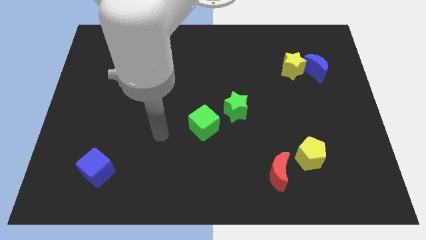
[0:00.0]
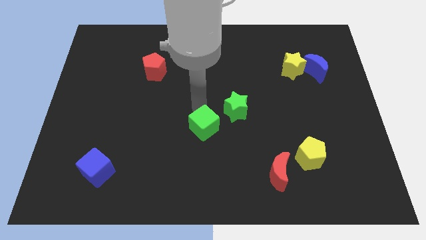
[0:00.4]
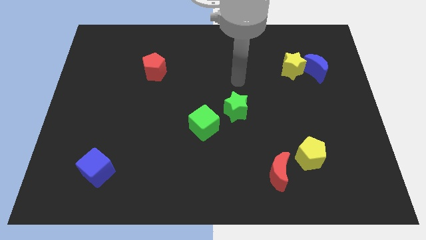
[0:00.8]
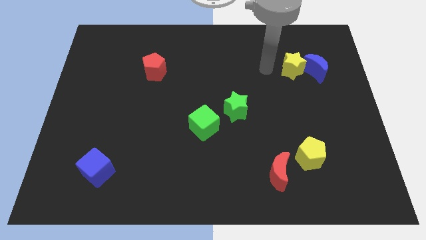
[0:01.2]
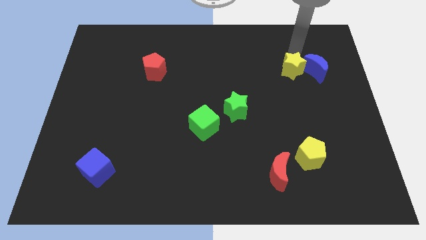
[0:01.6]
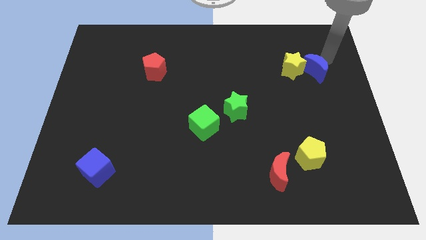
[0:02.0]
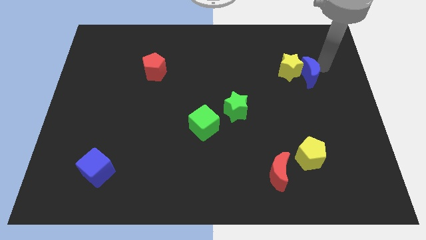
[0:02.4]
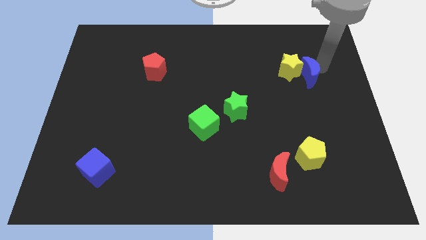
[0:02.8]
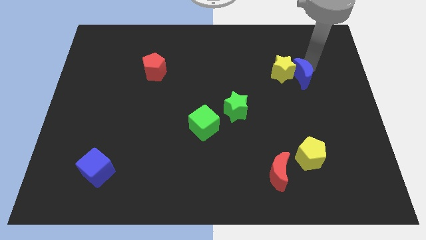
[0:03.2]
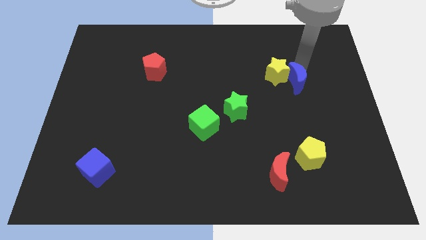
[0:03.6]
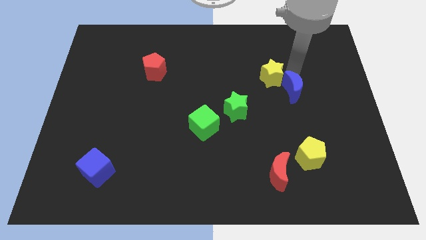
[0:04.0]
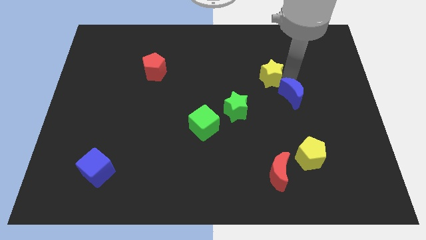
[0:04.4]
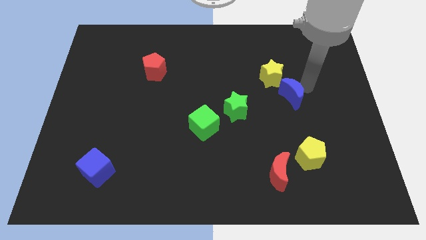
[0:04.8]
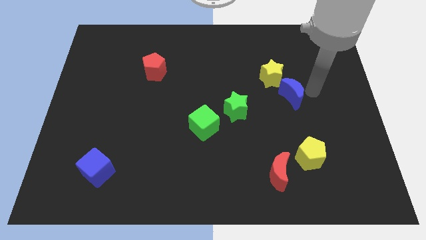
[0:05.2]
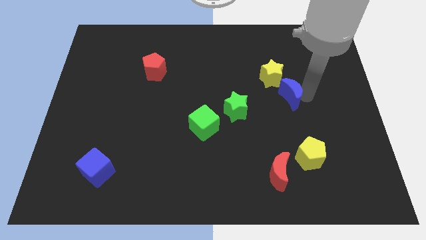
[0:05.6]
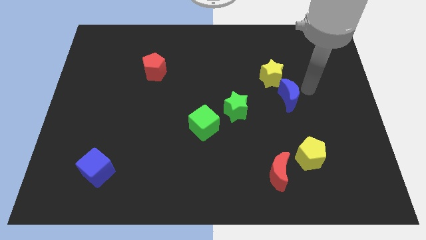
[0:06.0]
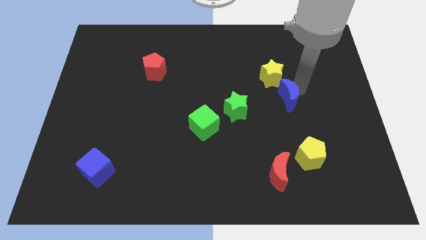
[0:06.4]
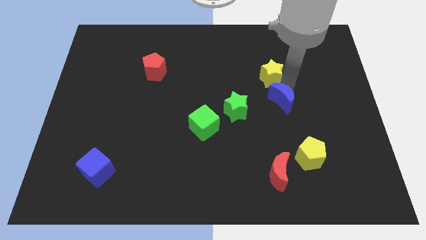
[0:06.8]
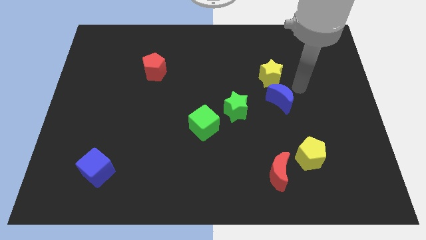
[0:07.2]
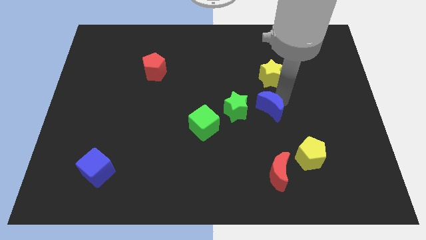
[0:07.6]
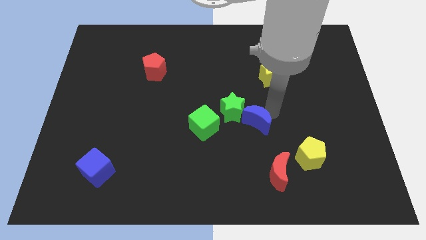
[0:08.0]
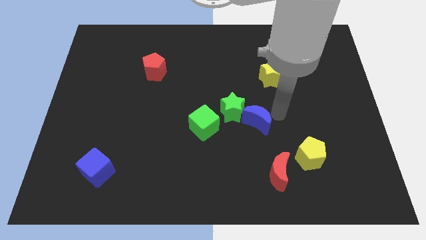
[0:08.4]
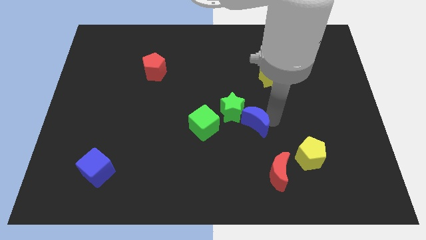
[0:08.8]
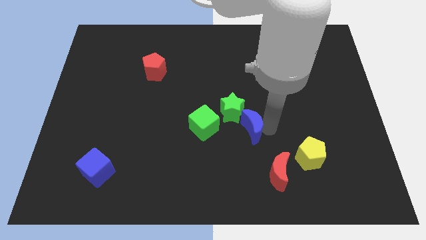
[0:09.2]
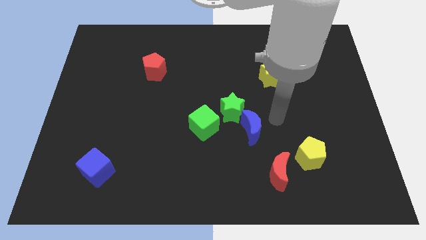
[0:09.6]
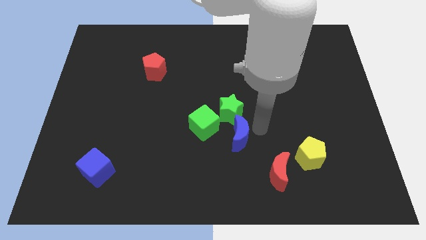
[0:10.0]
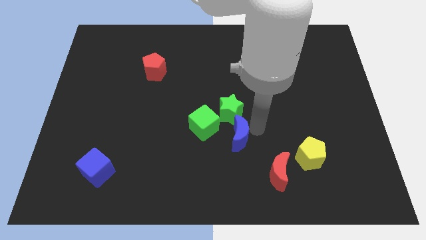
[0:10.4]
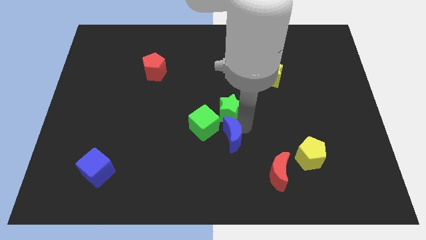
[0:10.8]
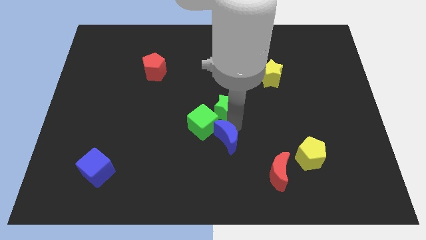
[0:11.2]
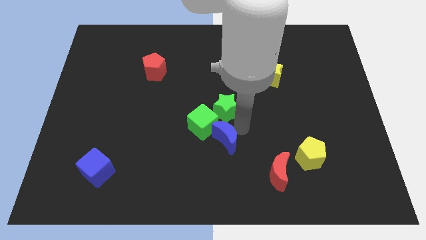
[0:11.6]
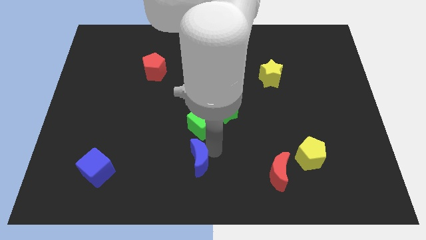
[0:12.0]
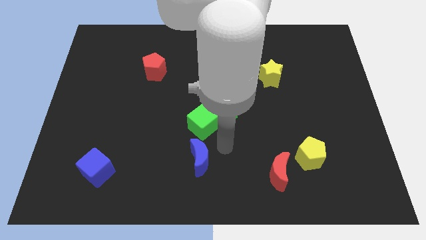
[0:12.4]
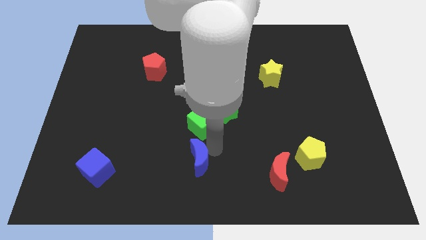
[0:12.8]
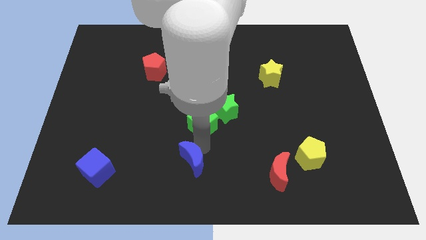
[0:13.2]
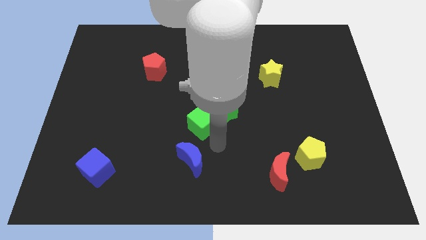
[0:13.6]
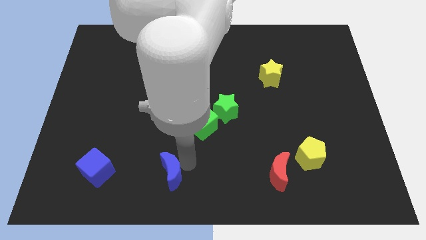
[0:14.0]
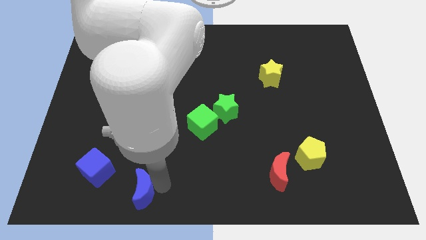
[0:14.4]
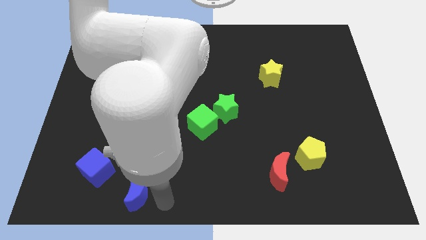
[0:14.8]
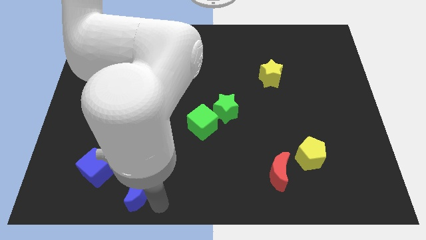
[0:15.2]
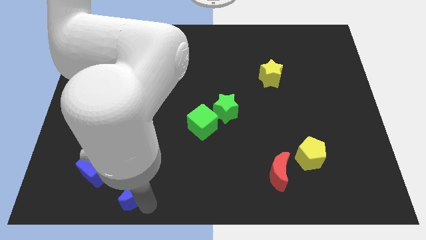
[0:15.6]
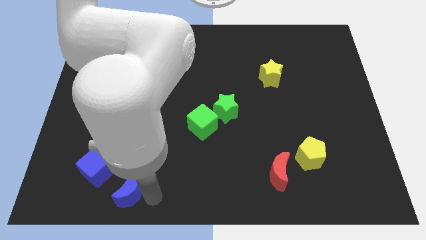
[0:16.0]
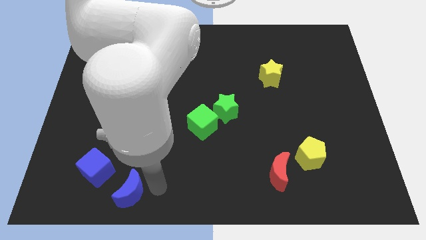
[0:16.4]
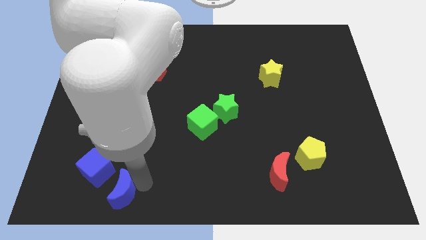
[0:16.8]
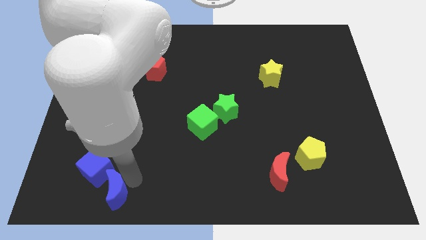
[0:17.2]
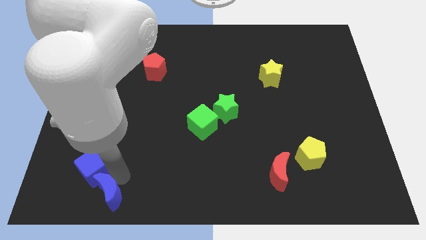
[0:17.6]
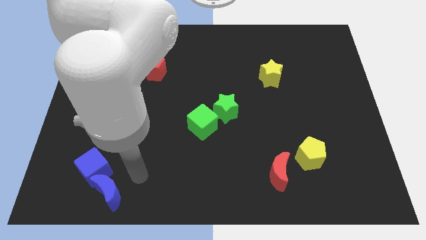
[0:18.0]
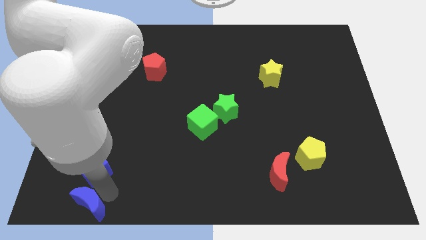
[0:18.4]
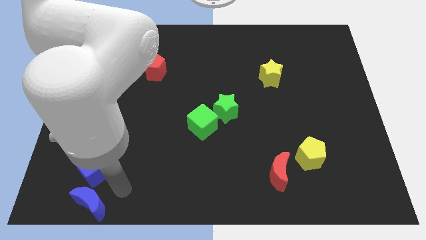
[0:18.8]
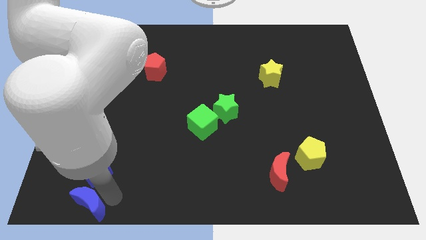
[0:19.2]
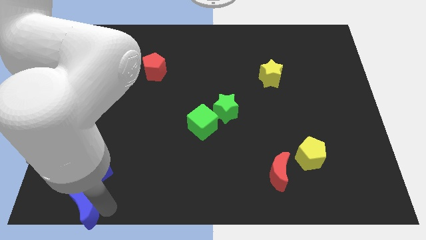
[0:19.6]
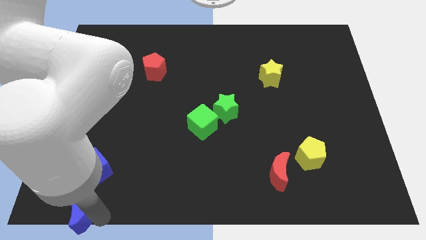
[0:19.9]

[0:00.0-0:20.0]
slide the blue moon to the bottom left of the board

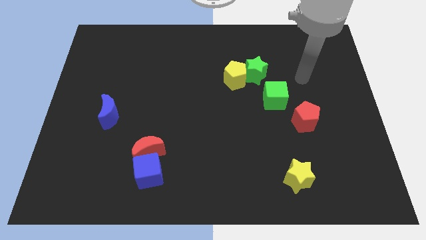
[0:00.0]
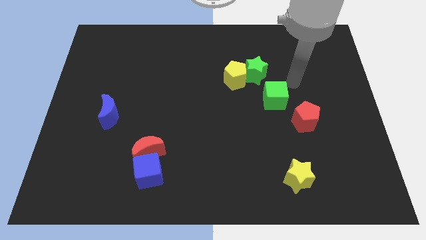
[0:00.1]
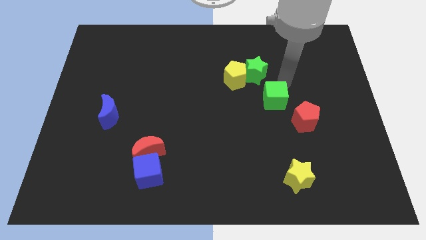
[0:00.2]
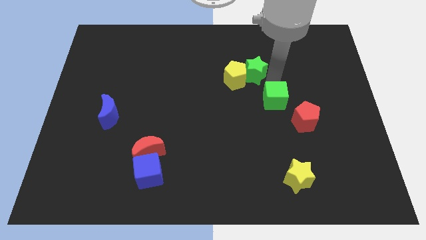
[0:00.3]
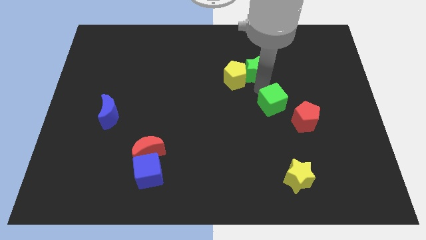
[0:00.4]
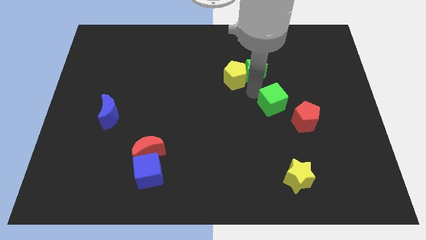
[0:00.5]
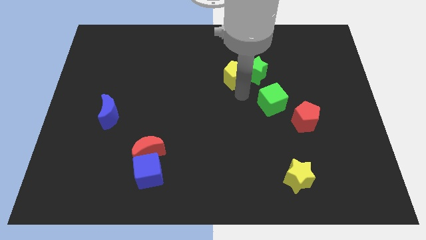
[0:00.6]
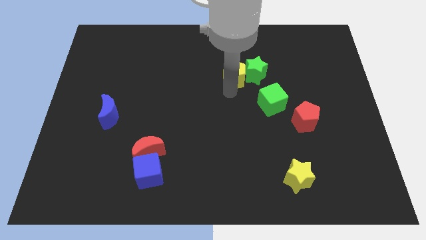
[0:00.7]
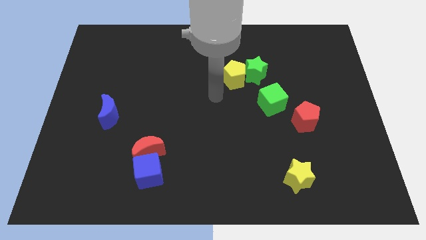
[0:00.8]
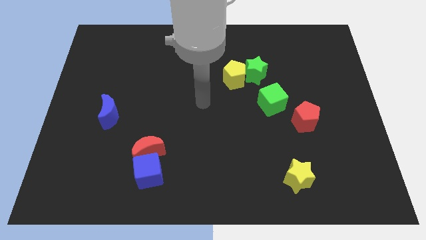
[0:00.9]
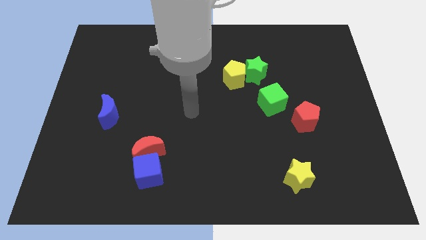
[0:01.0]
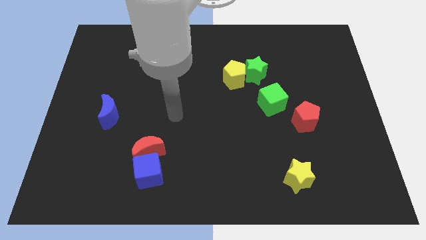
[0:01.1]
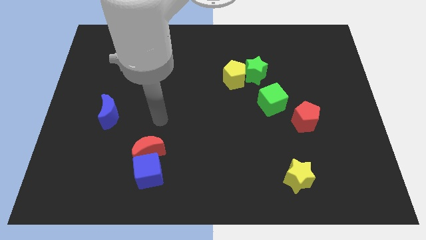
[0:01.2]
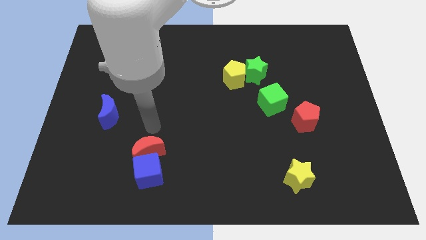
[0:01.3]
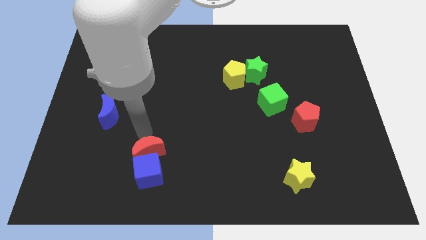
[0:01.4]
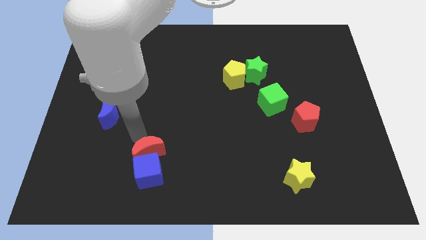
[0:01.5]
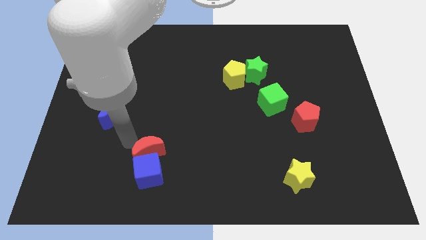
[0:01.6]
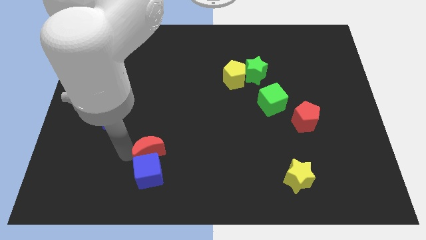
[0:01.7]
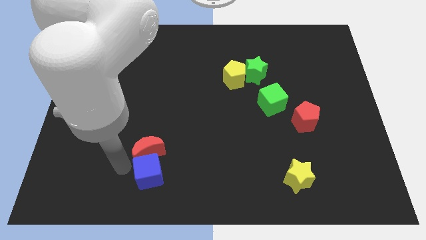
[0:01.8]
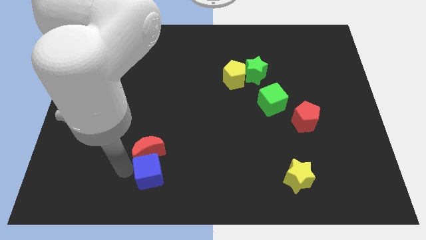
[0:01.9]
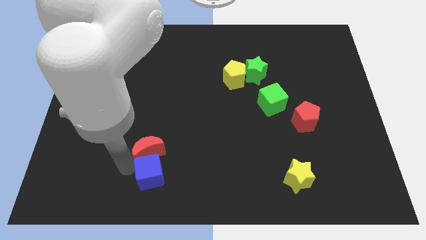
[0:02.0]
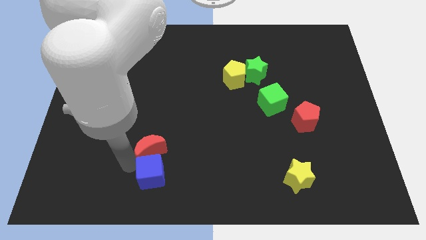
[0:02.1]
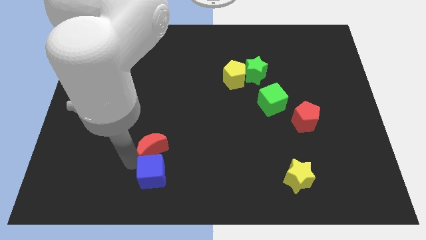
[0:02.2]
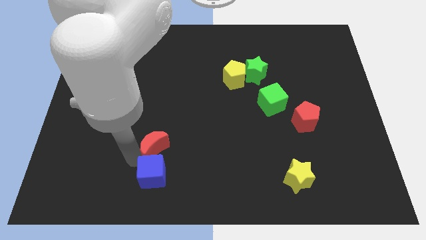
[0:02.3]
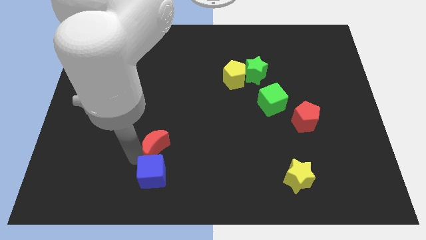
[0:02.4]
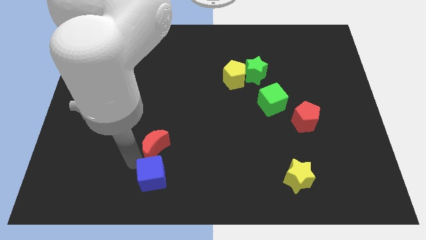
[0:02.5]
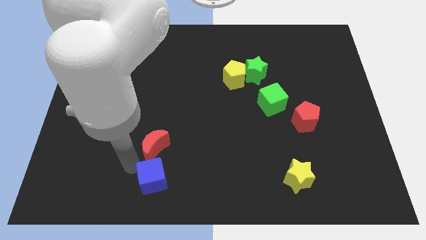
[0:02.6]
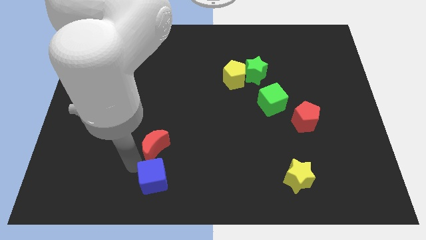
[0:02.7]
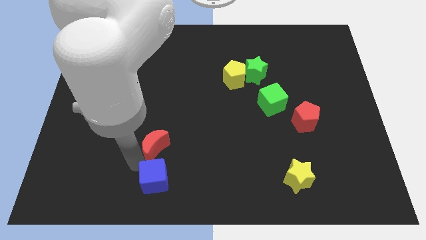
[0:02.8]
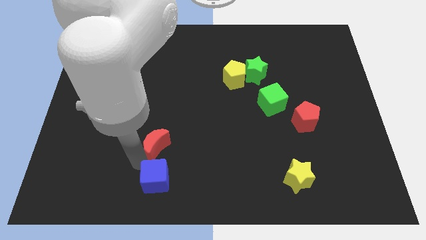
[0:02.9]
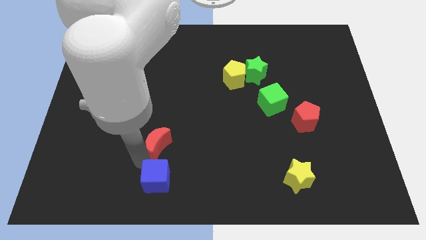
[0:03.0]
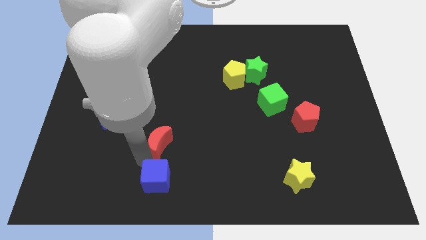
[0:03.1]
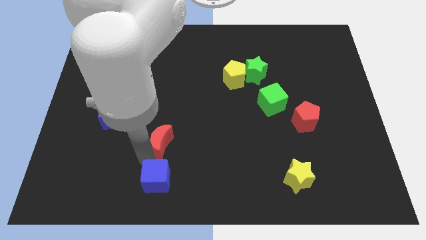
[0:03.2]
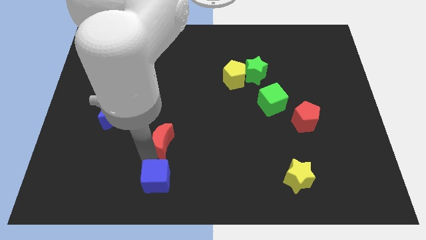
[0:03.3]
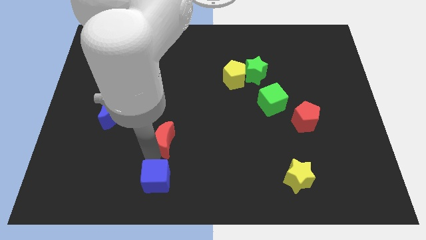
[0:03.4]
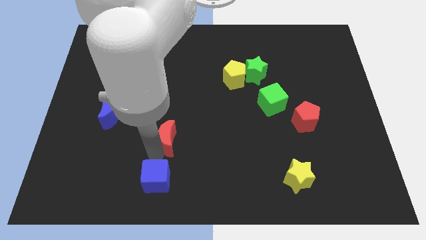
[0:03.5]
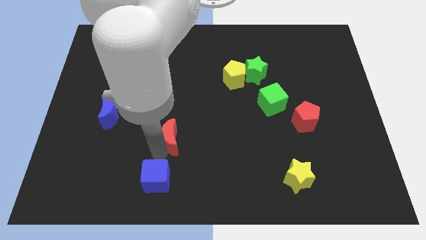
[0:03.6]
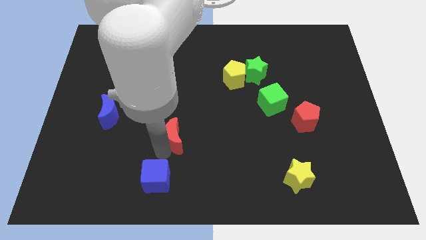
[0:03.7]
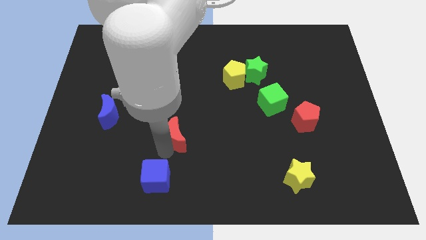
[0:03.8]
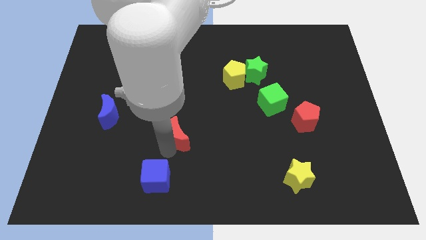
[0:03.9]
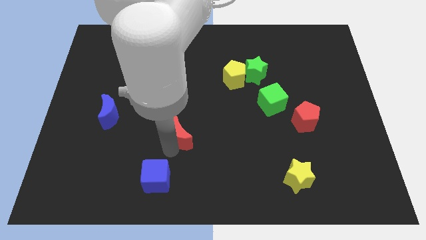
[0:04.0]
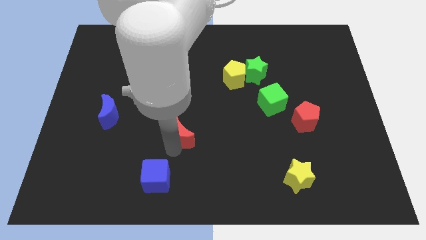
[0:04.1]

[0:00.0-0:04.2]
put the red moon to the middle
